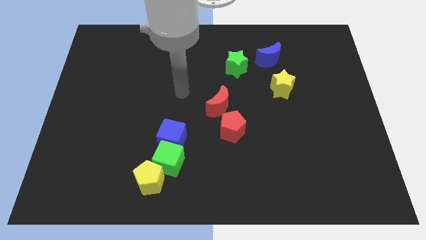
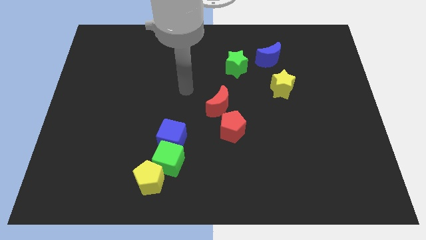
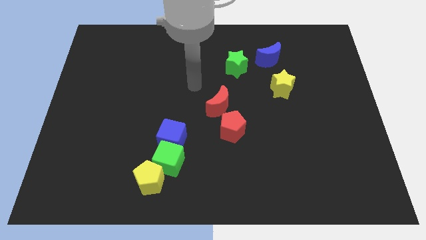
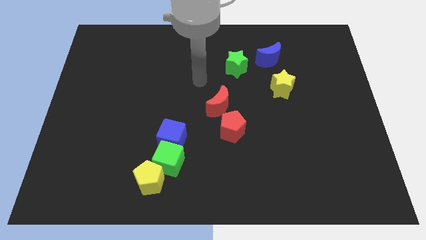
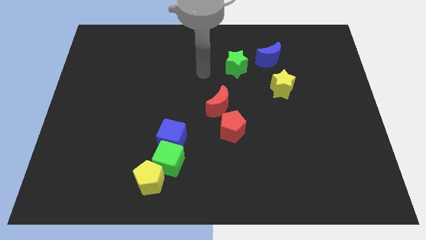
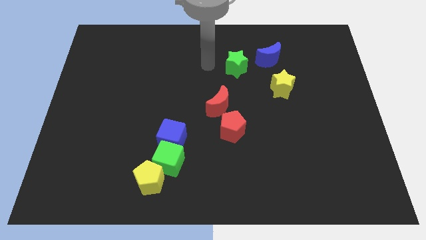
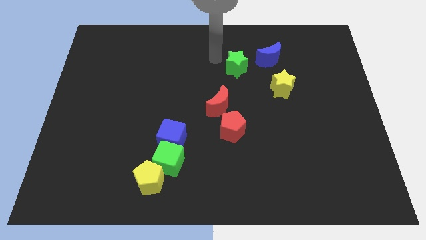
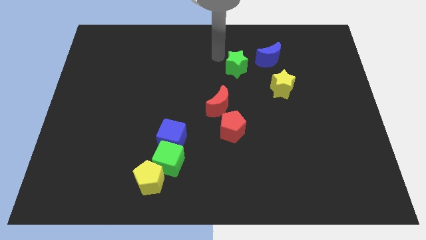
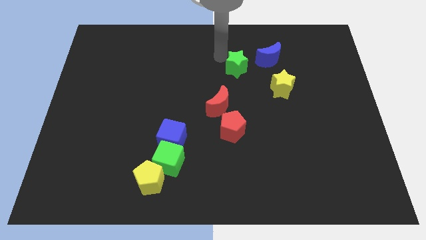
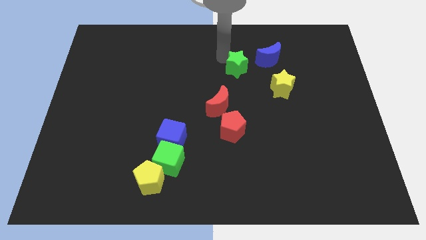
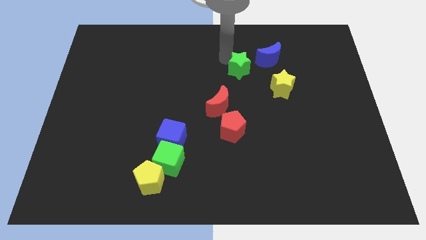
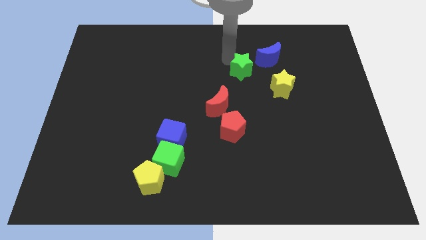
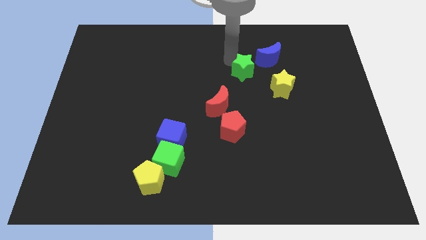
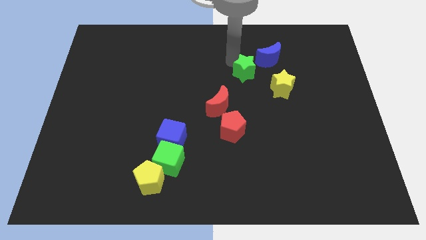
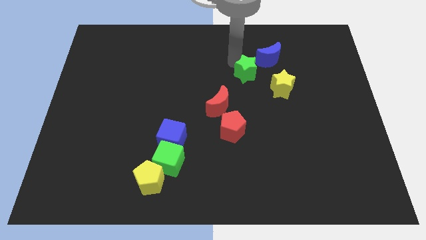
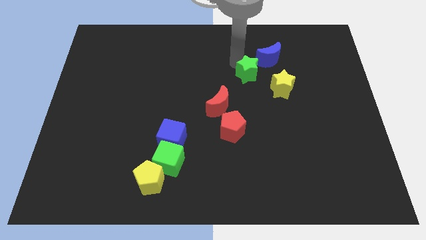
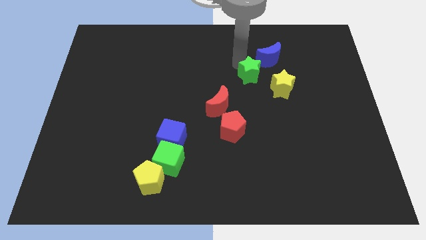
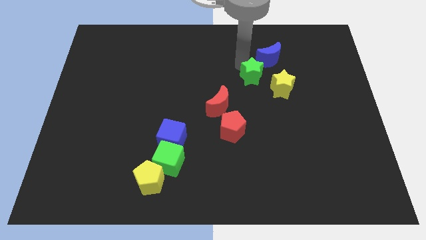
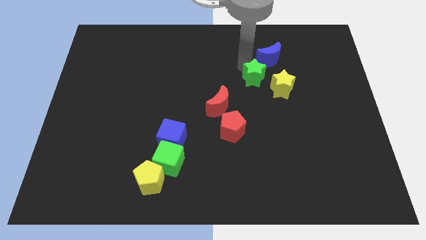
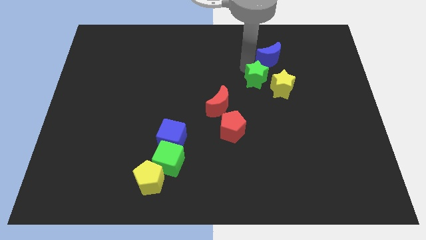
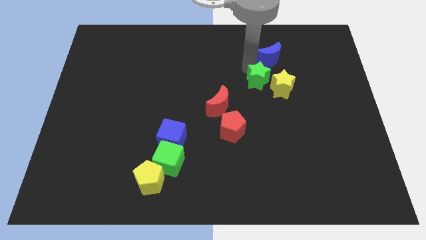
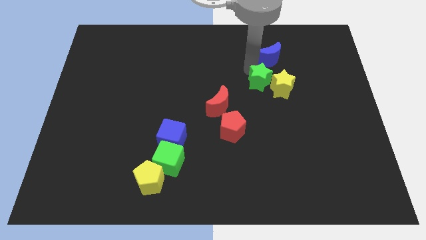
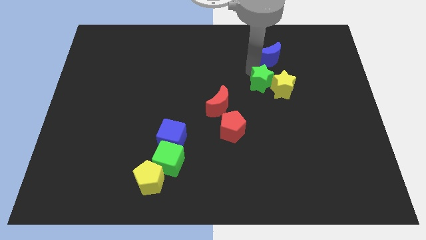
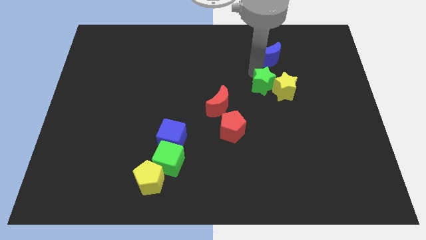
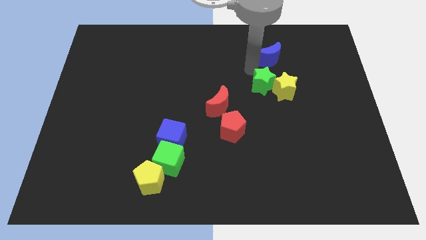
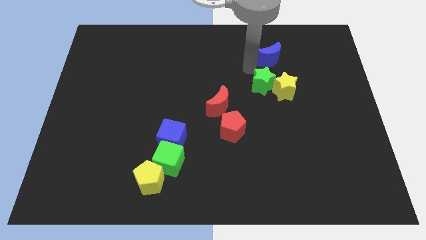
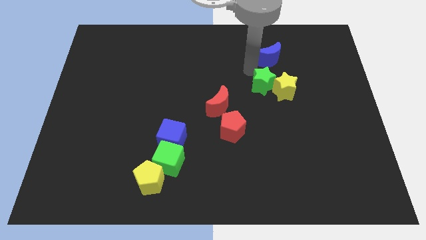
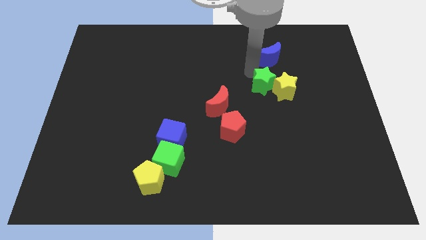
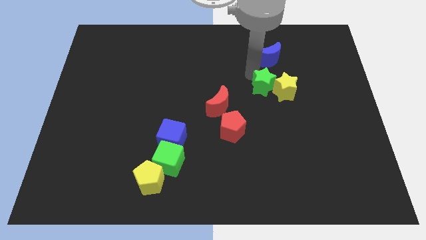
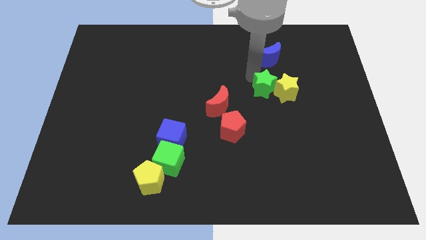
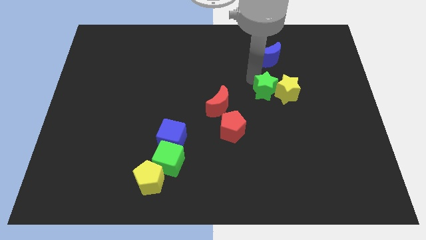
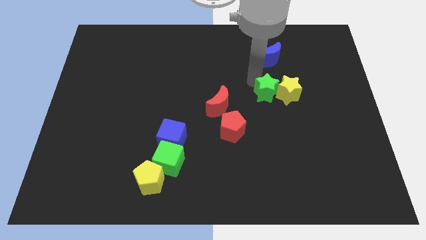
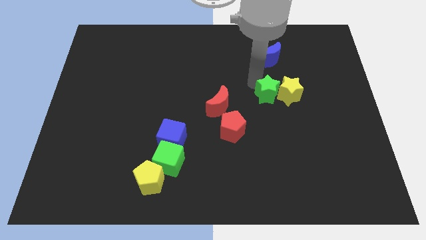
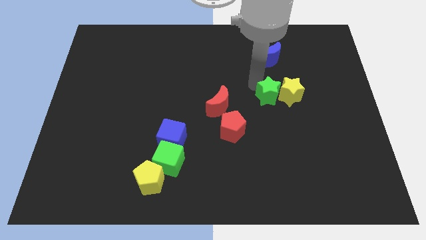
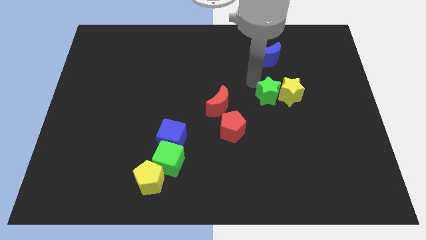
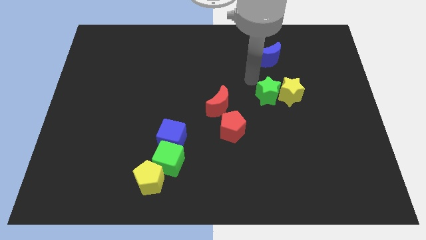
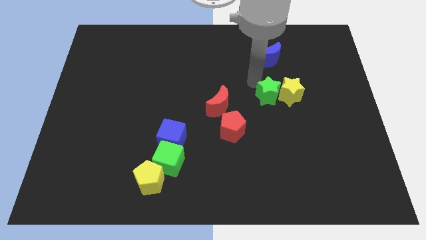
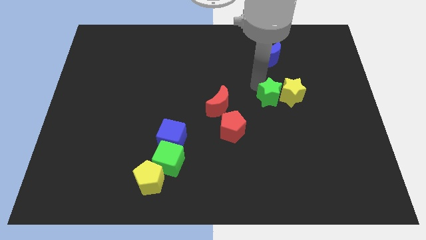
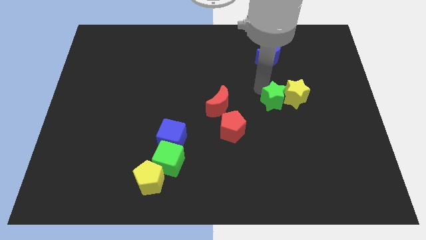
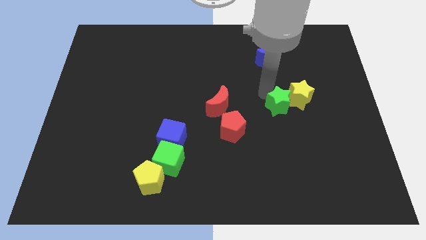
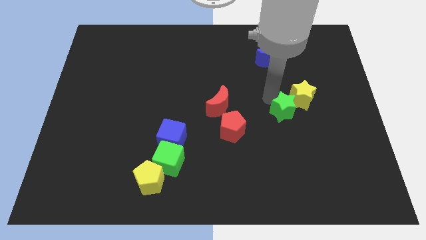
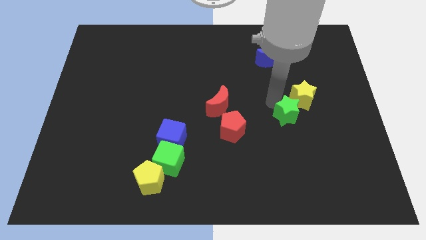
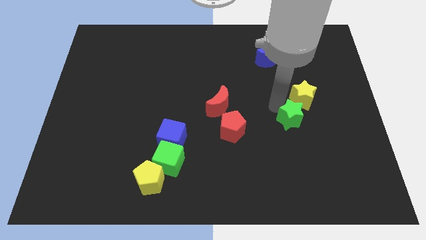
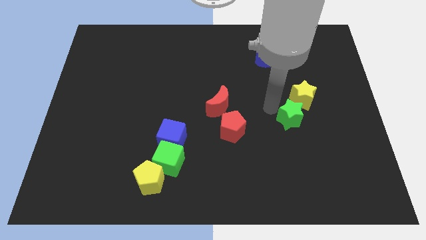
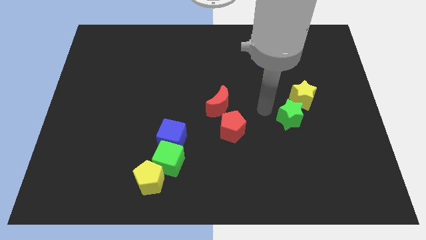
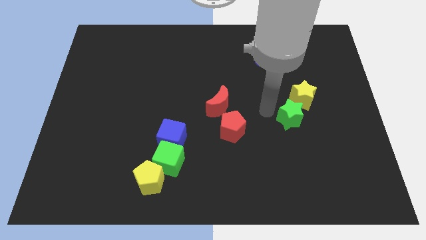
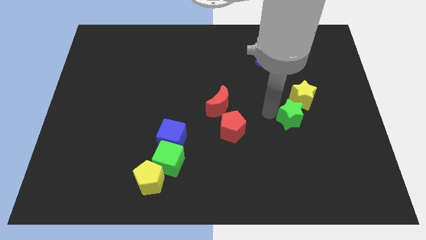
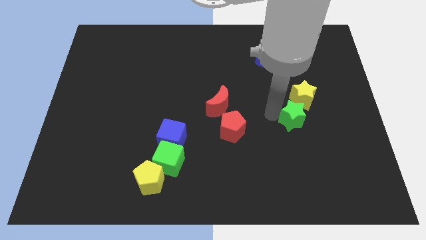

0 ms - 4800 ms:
move the green star downwards and to the right

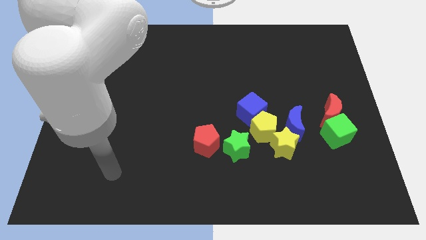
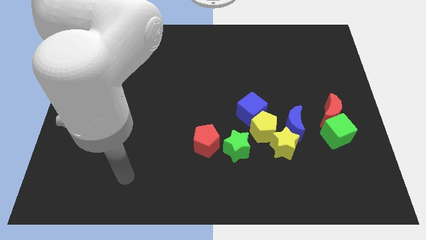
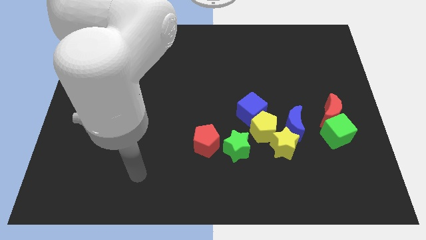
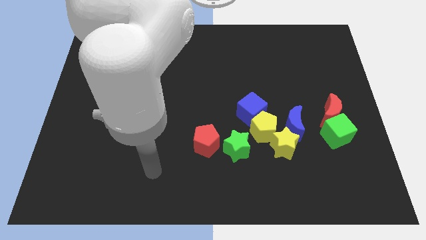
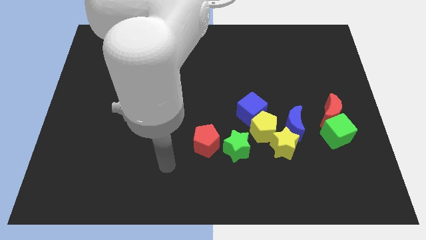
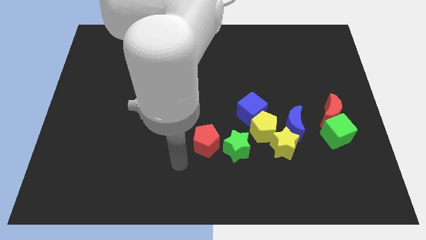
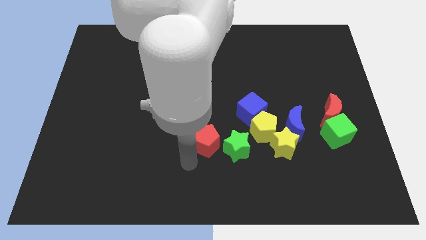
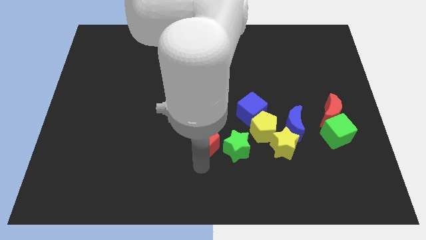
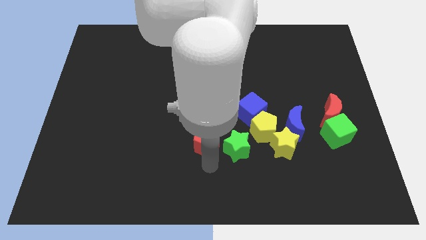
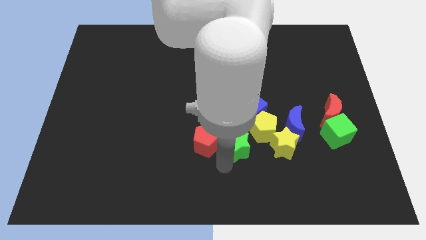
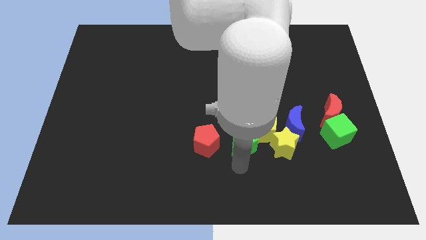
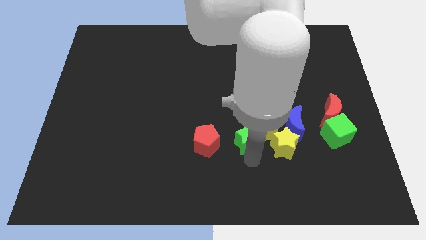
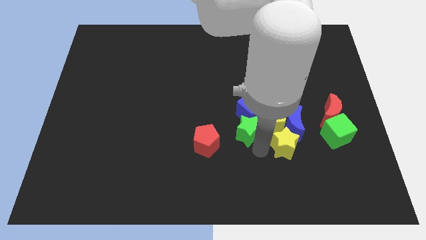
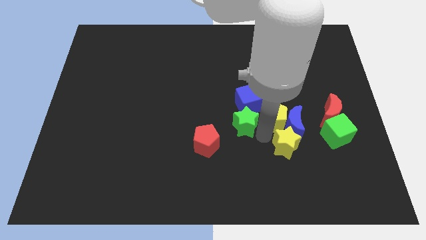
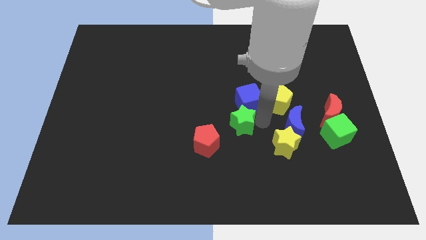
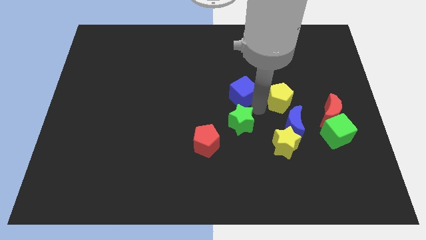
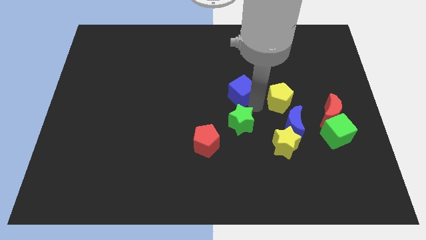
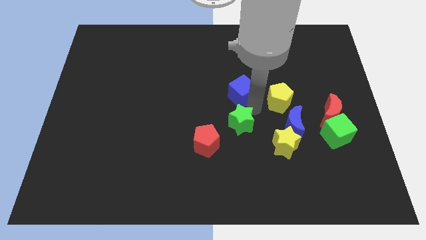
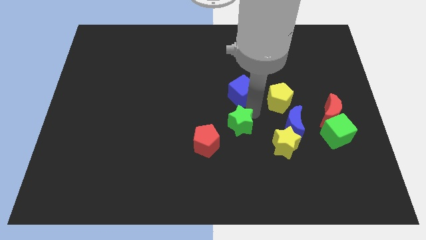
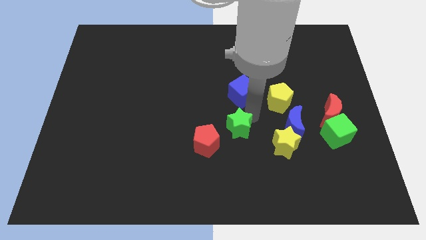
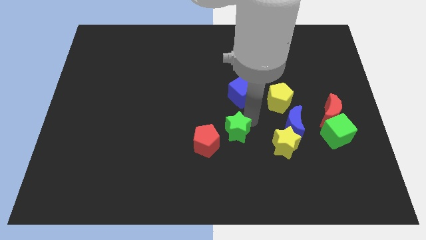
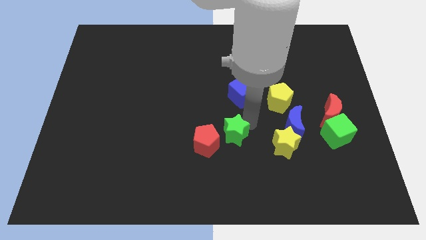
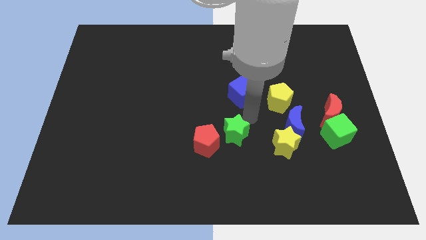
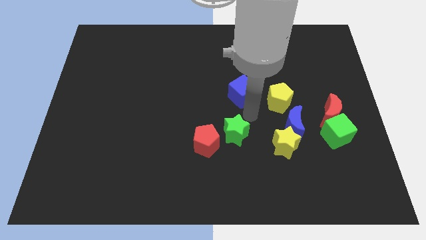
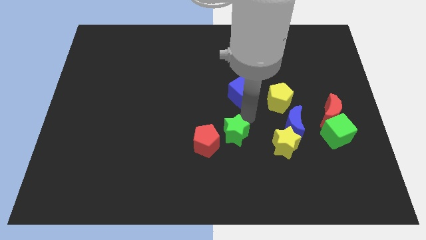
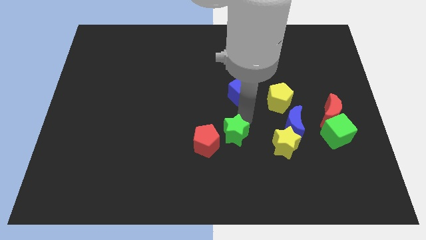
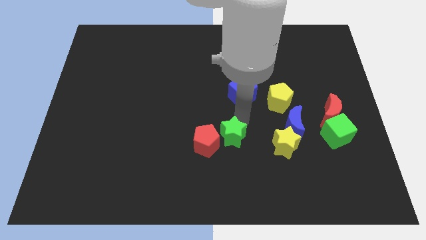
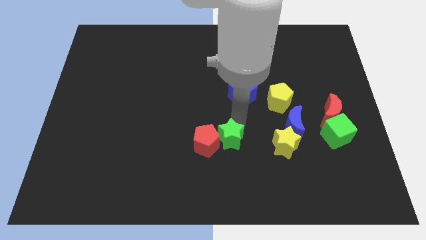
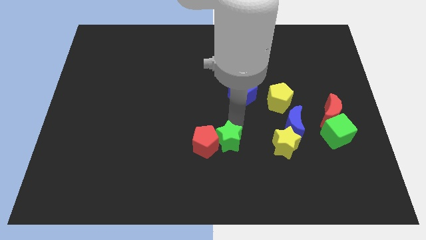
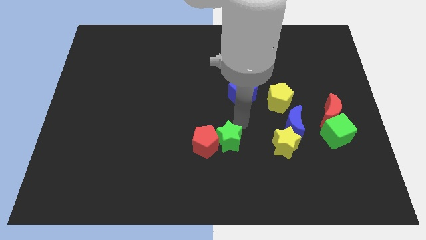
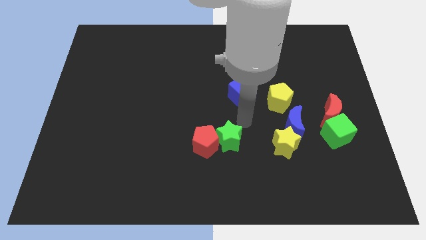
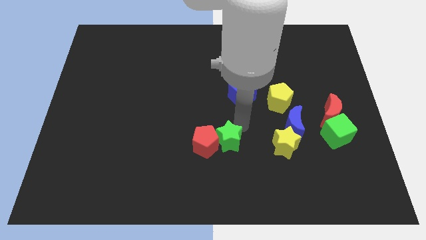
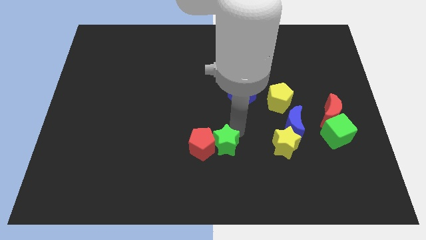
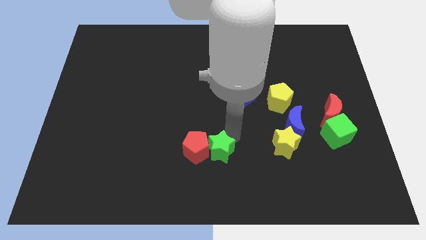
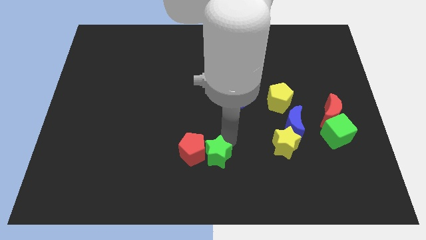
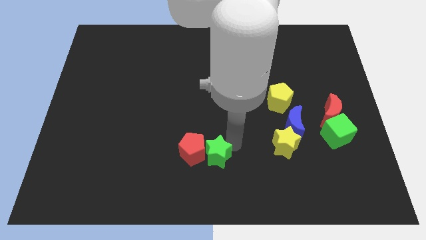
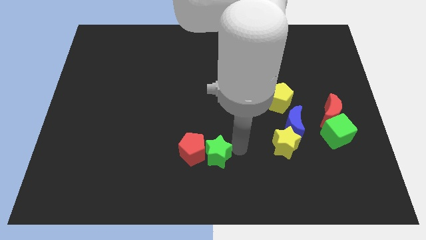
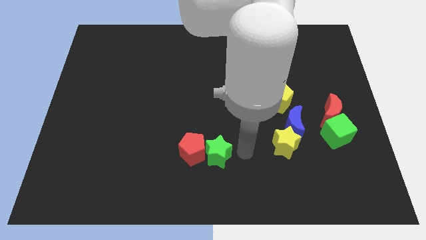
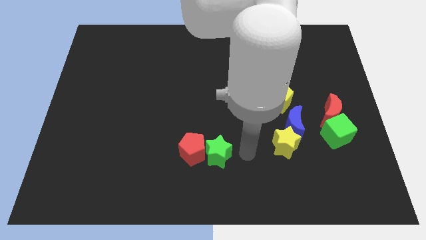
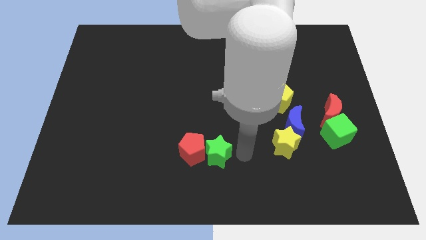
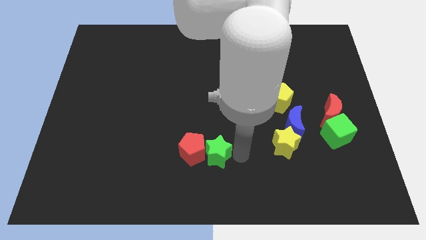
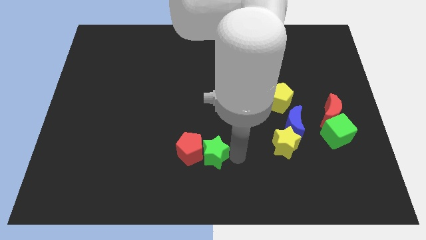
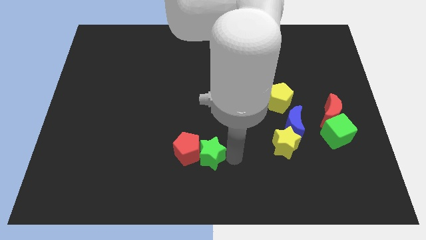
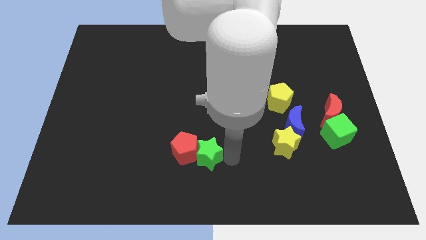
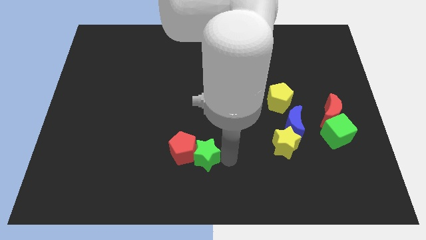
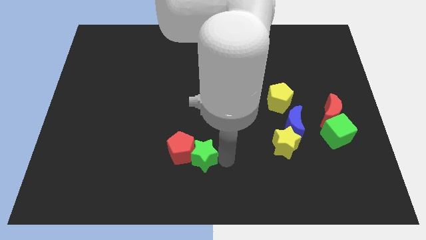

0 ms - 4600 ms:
push the green star slightly left
